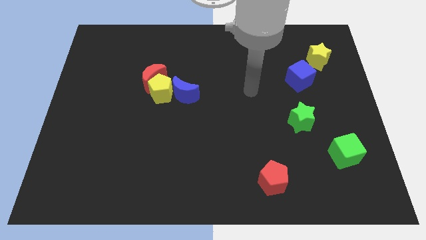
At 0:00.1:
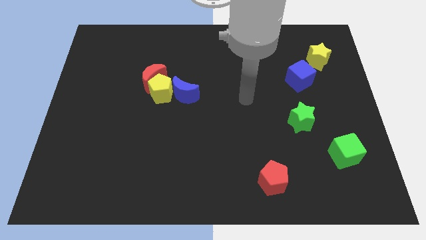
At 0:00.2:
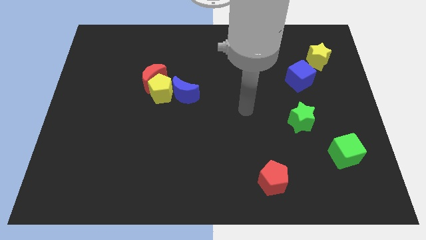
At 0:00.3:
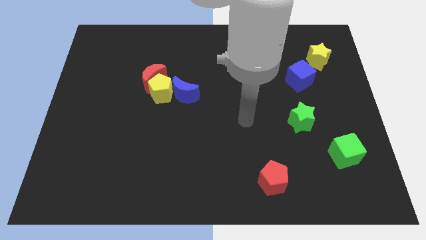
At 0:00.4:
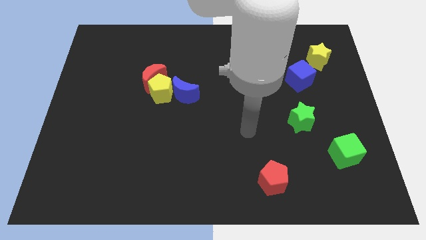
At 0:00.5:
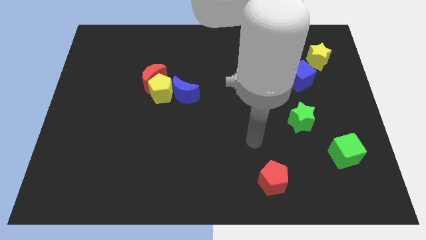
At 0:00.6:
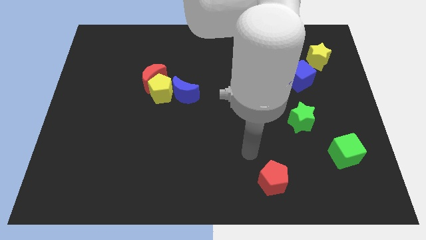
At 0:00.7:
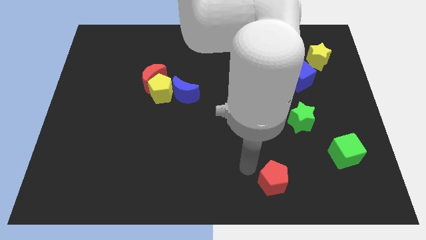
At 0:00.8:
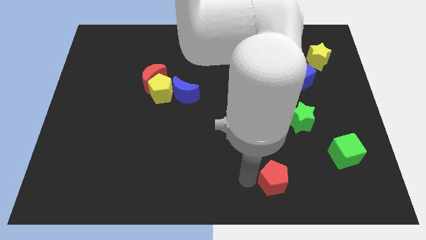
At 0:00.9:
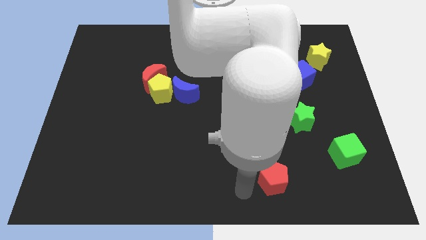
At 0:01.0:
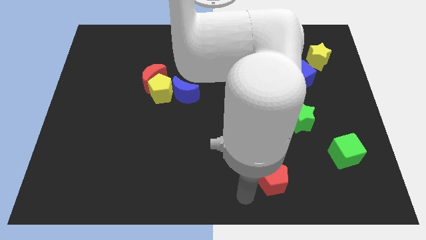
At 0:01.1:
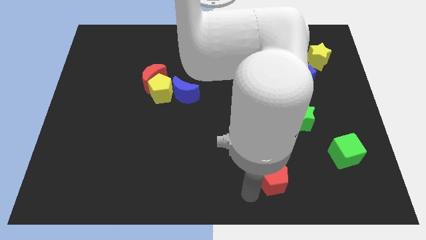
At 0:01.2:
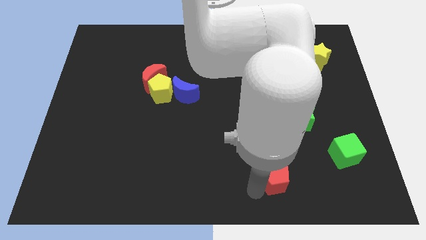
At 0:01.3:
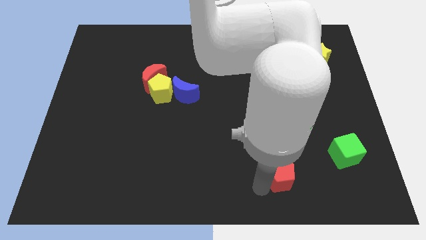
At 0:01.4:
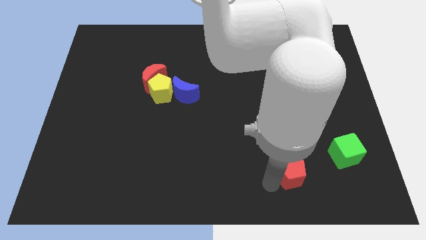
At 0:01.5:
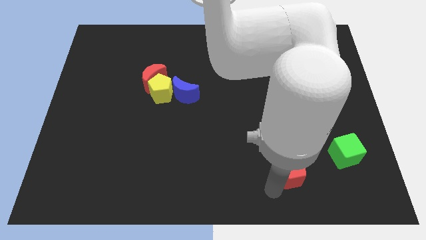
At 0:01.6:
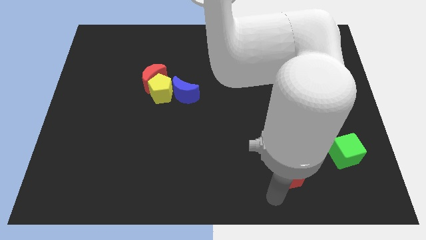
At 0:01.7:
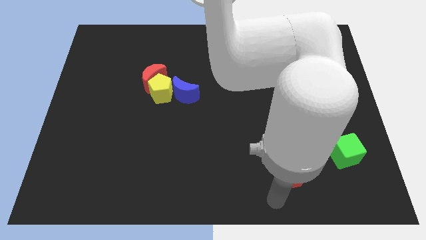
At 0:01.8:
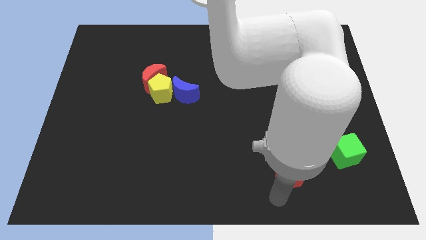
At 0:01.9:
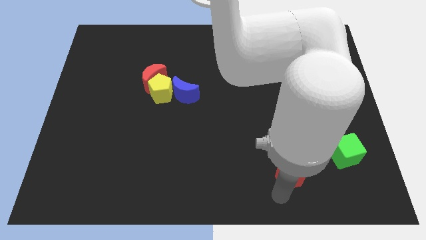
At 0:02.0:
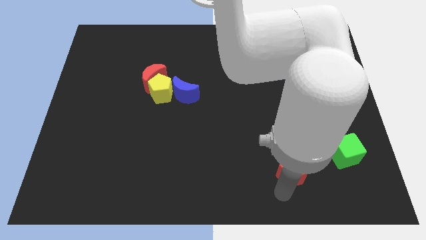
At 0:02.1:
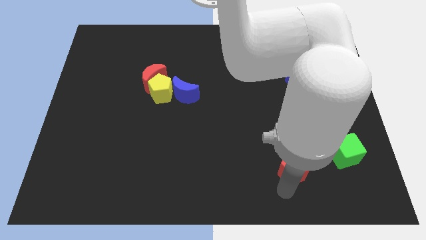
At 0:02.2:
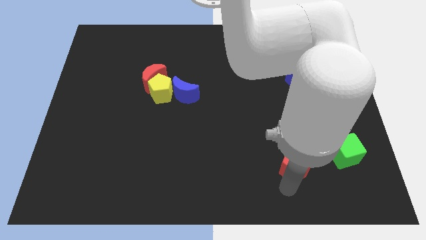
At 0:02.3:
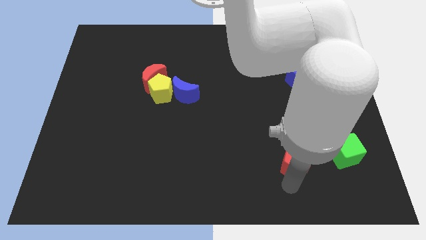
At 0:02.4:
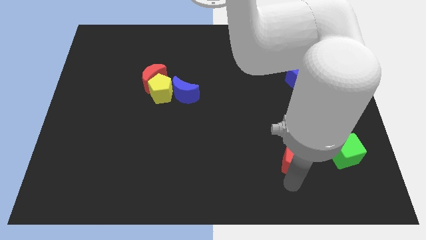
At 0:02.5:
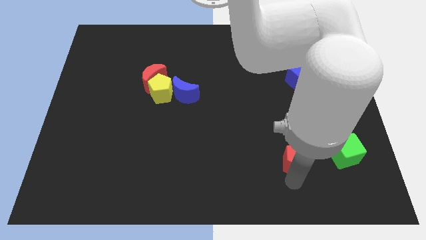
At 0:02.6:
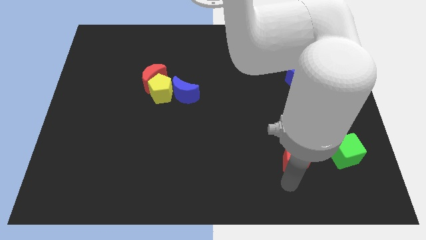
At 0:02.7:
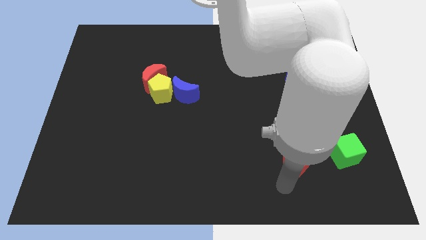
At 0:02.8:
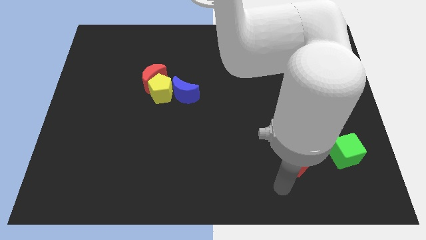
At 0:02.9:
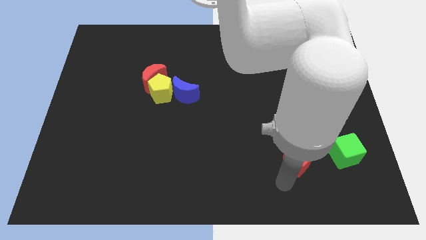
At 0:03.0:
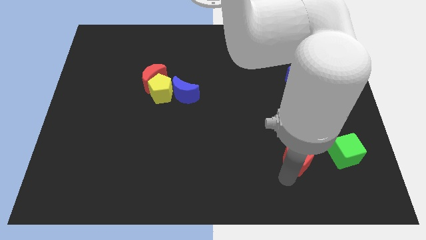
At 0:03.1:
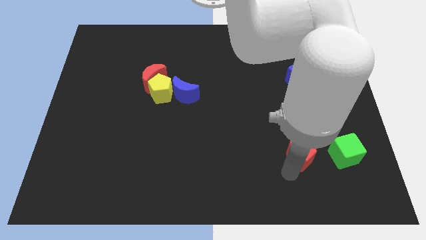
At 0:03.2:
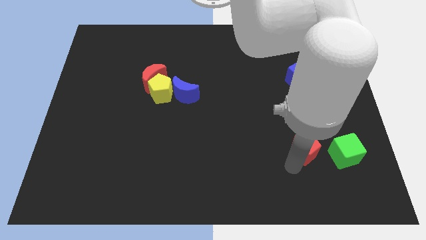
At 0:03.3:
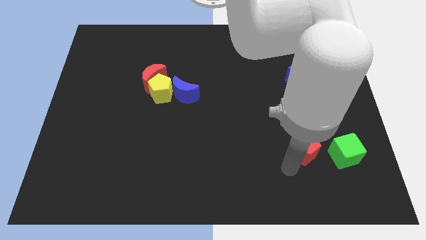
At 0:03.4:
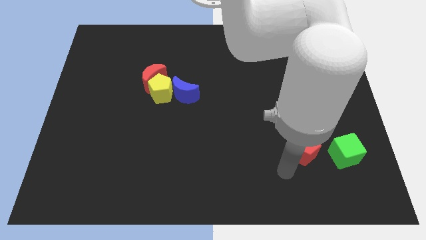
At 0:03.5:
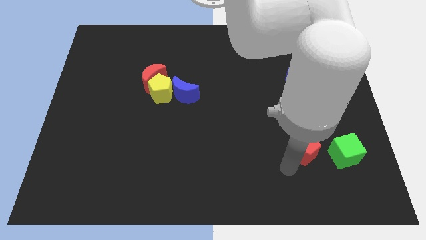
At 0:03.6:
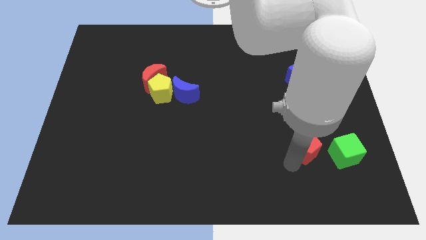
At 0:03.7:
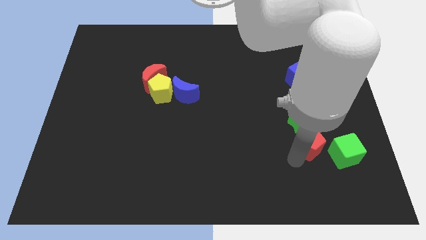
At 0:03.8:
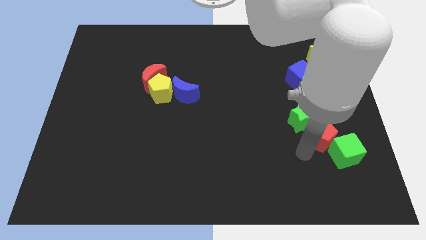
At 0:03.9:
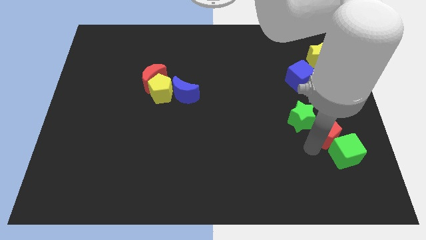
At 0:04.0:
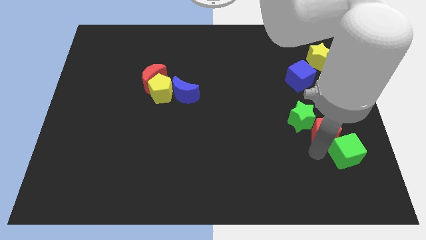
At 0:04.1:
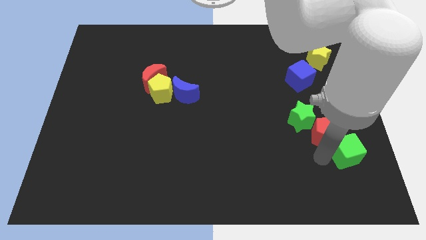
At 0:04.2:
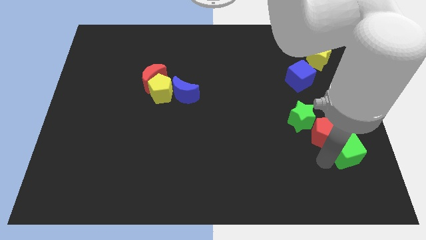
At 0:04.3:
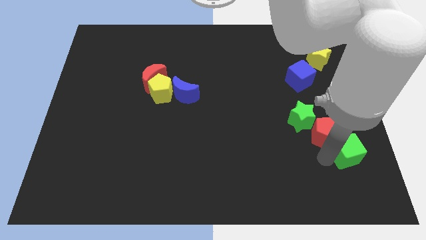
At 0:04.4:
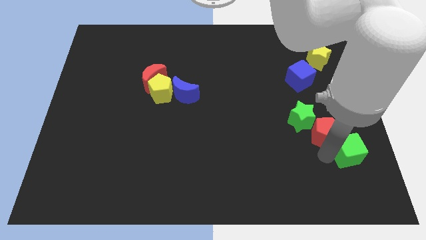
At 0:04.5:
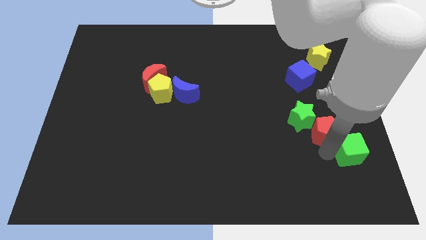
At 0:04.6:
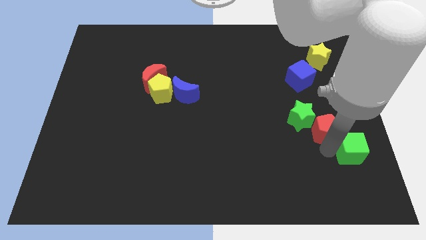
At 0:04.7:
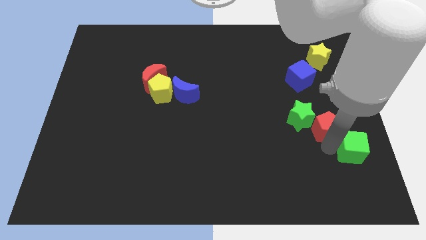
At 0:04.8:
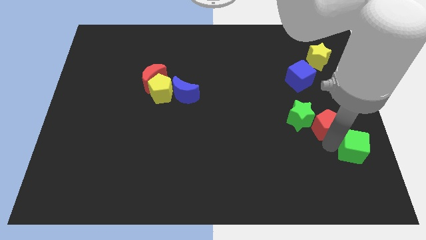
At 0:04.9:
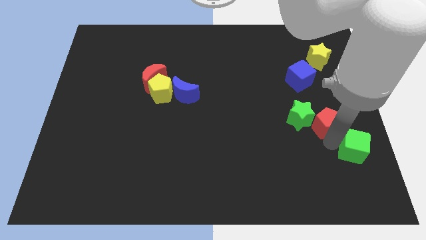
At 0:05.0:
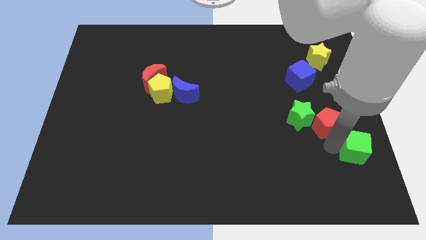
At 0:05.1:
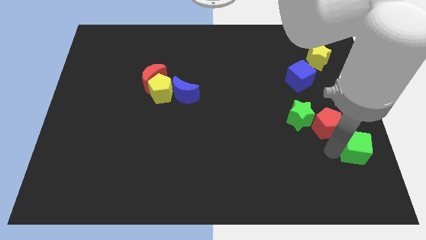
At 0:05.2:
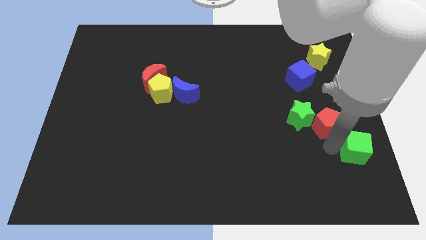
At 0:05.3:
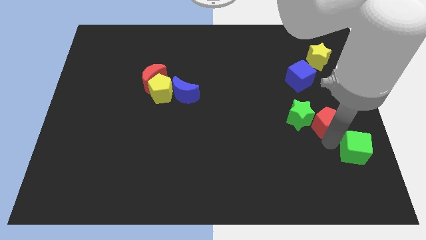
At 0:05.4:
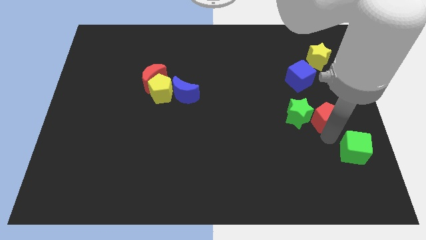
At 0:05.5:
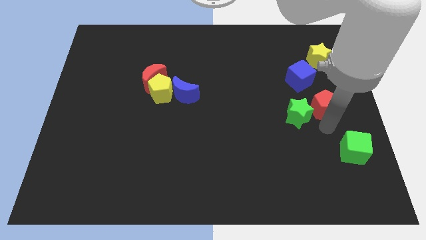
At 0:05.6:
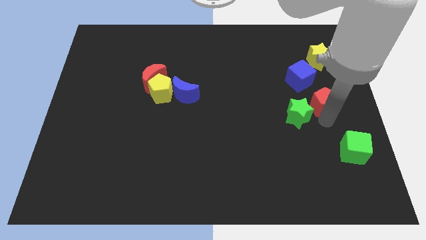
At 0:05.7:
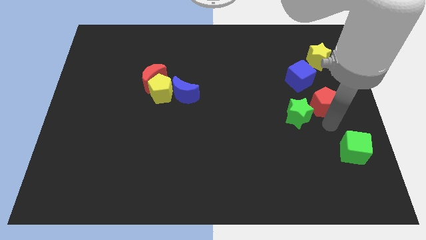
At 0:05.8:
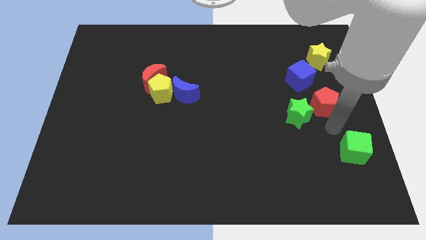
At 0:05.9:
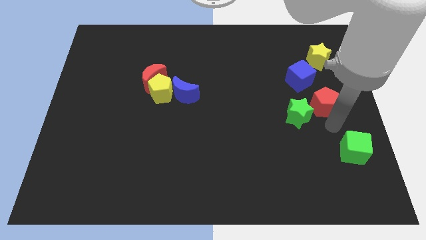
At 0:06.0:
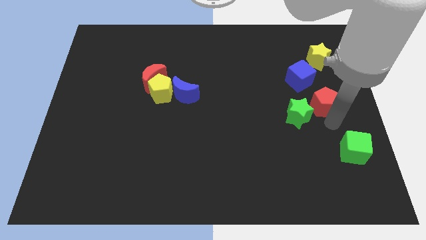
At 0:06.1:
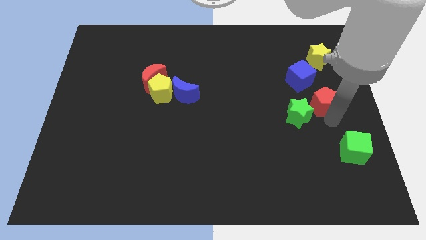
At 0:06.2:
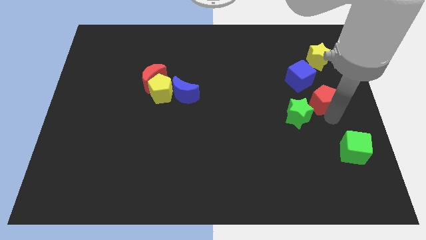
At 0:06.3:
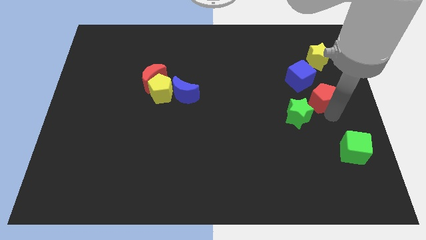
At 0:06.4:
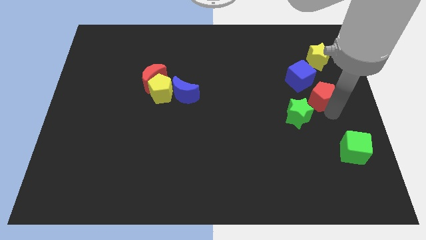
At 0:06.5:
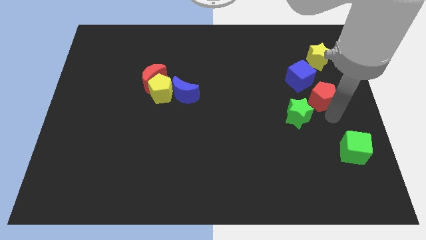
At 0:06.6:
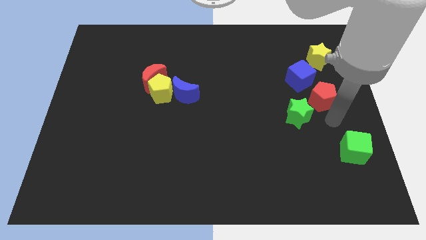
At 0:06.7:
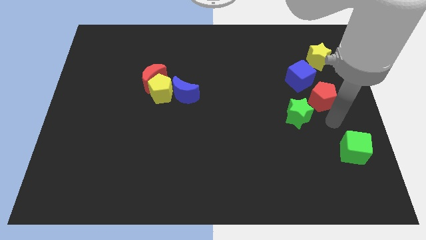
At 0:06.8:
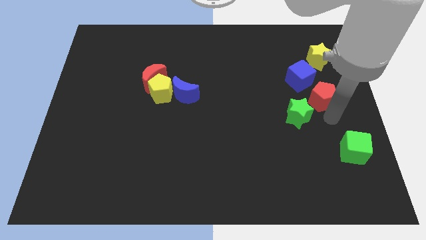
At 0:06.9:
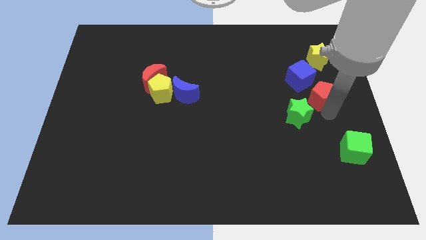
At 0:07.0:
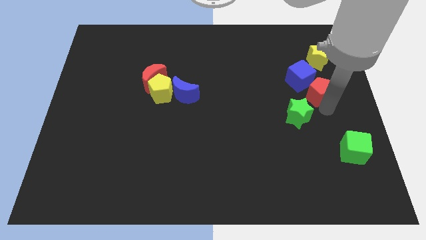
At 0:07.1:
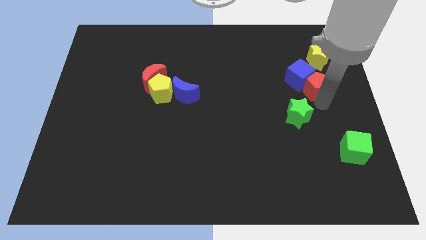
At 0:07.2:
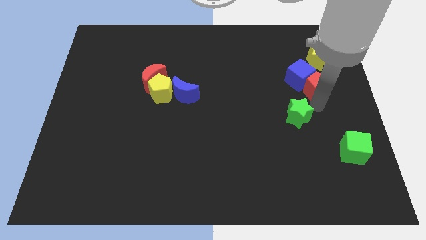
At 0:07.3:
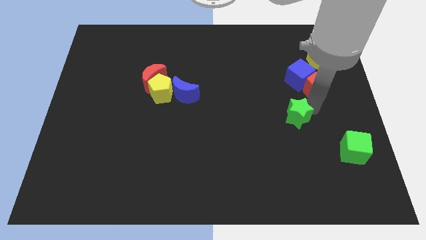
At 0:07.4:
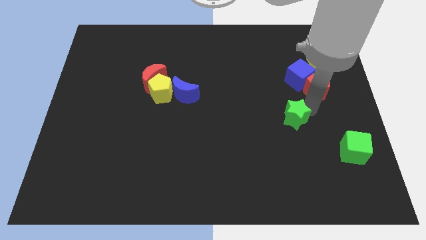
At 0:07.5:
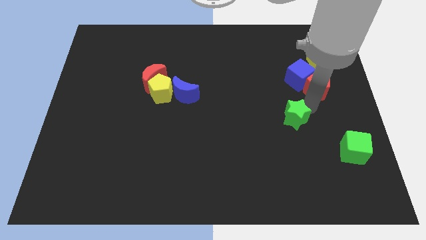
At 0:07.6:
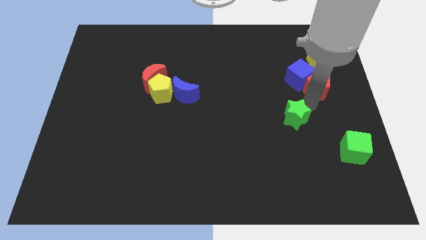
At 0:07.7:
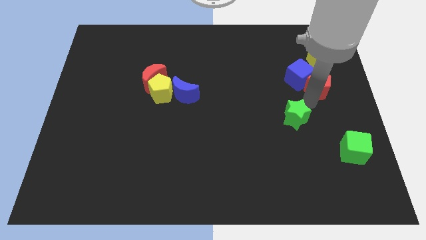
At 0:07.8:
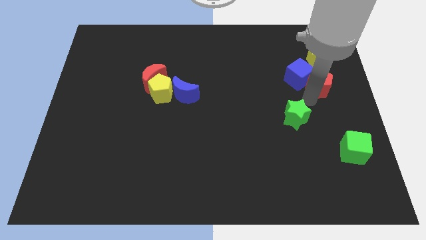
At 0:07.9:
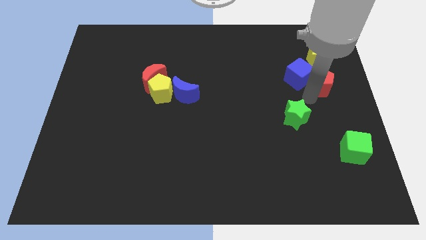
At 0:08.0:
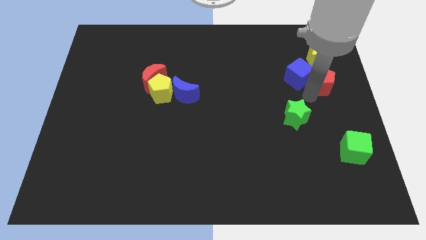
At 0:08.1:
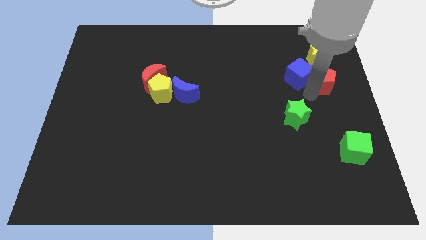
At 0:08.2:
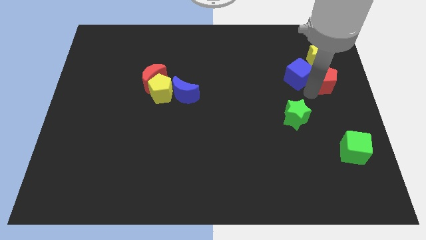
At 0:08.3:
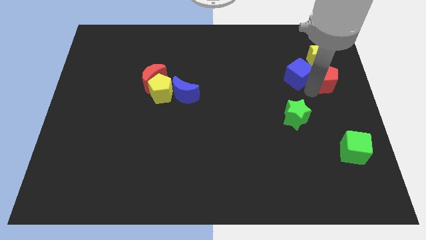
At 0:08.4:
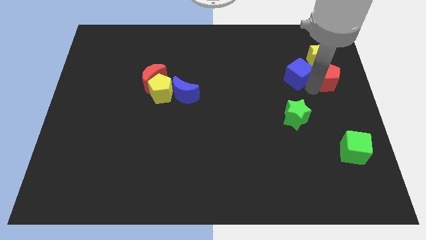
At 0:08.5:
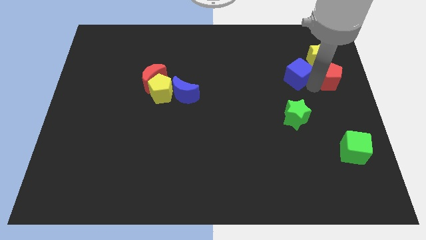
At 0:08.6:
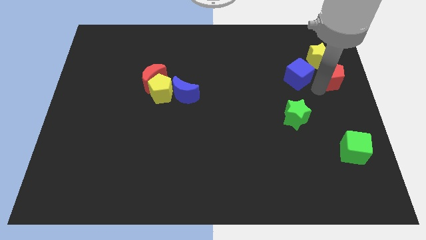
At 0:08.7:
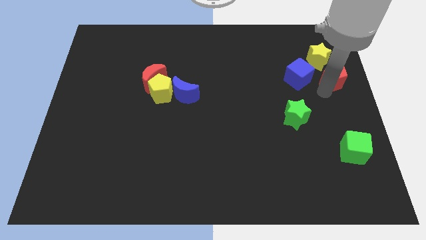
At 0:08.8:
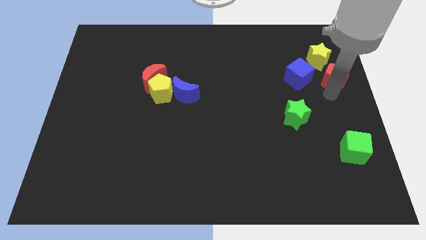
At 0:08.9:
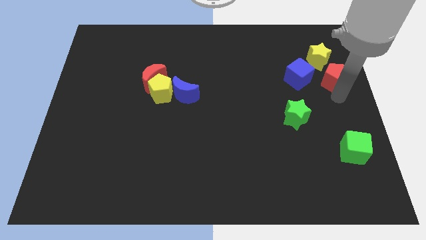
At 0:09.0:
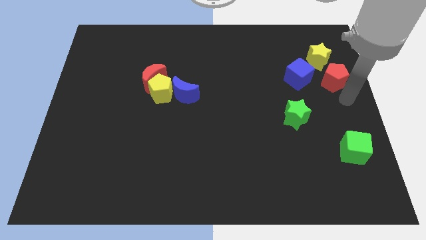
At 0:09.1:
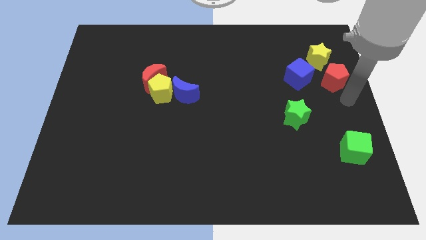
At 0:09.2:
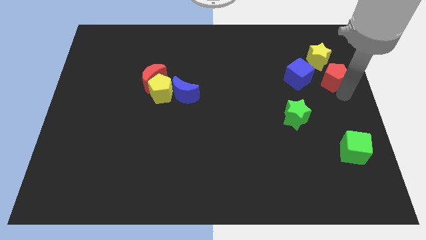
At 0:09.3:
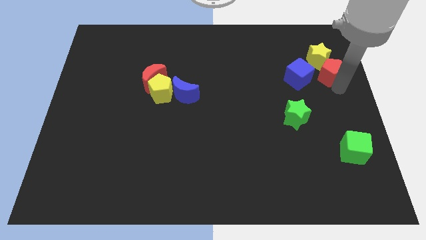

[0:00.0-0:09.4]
push the red pentagon towards the yellow star
